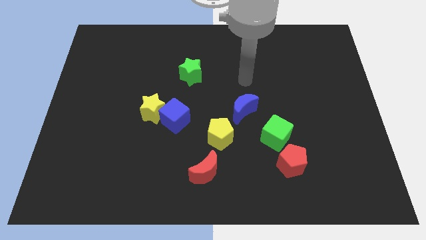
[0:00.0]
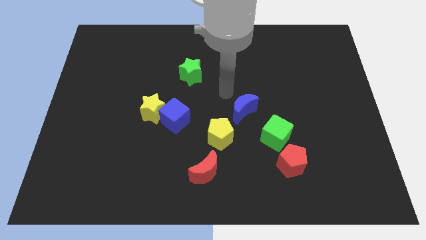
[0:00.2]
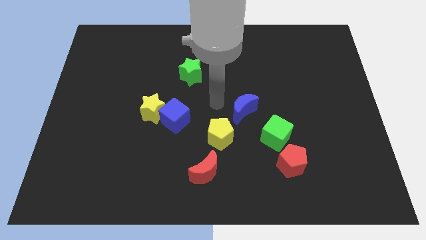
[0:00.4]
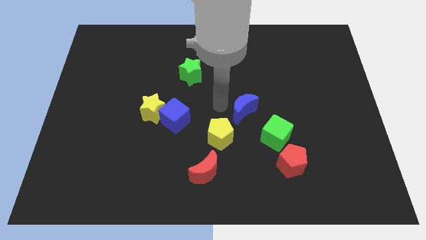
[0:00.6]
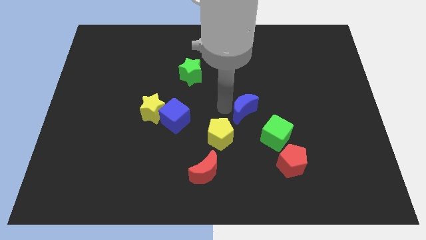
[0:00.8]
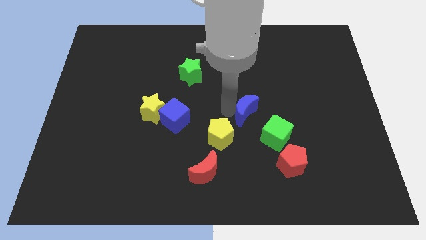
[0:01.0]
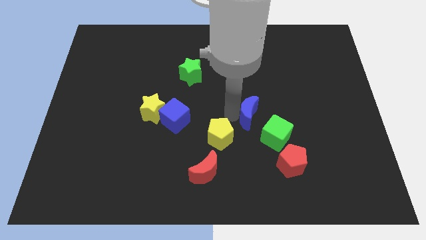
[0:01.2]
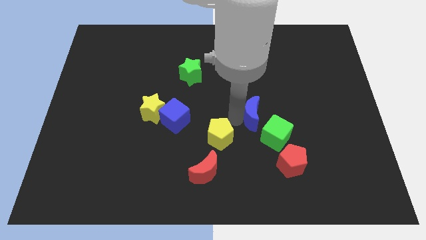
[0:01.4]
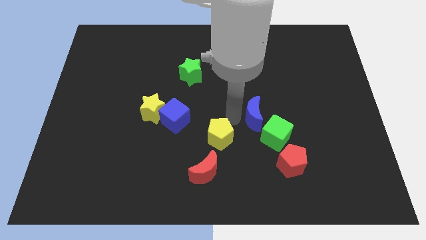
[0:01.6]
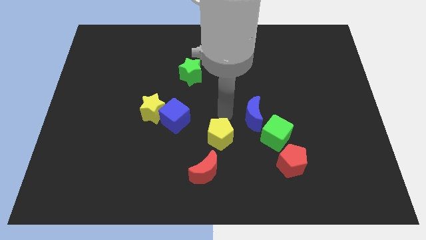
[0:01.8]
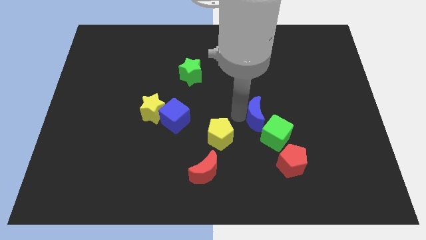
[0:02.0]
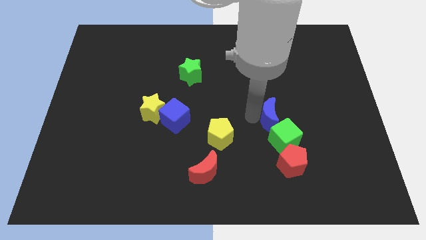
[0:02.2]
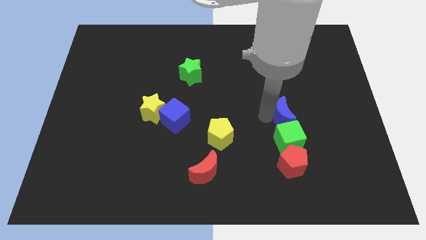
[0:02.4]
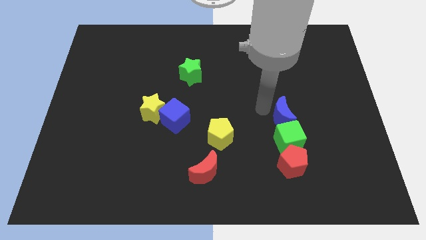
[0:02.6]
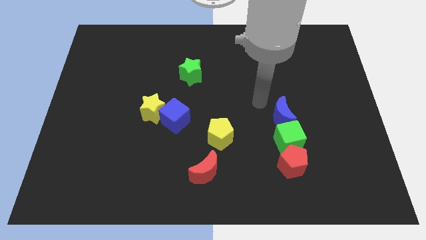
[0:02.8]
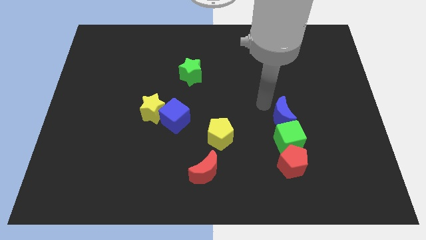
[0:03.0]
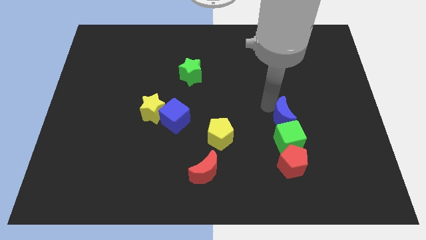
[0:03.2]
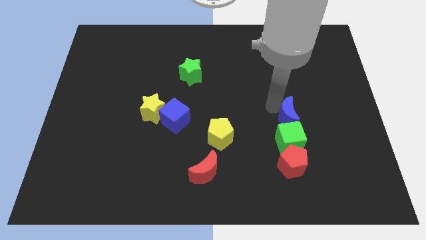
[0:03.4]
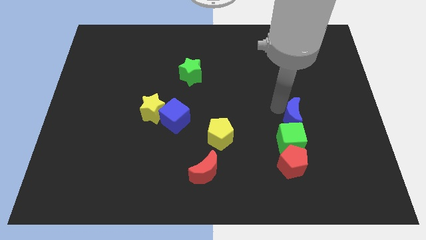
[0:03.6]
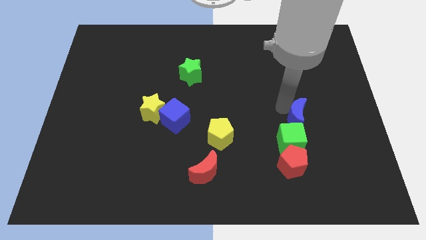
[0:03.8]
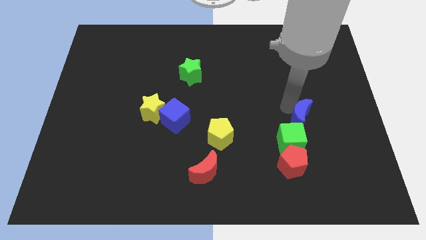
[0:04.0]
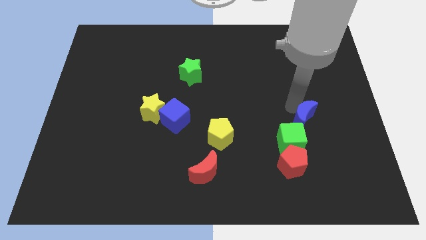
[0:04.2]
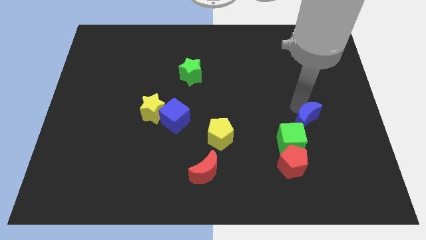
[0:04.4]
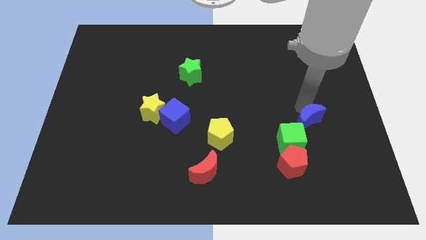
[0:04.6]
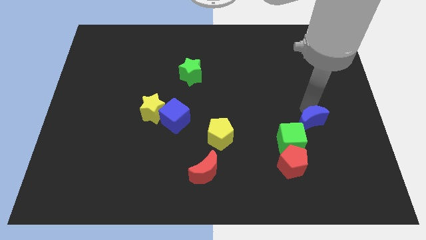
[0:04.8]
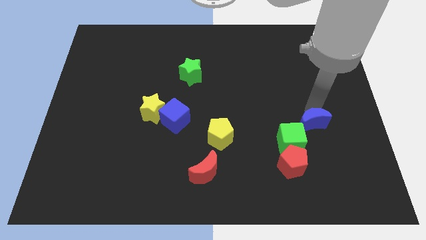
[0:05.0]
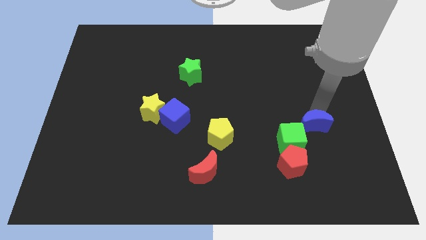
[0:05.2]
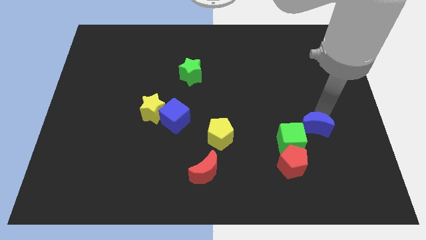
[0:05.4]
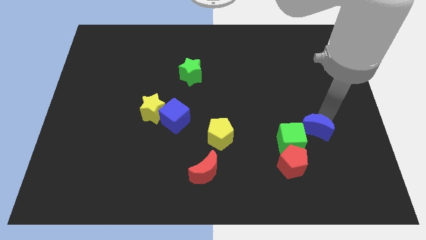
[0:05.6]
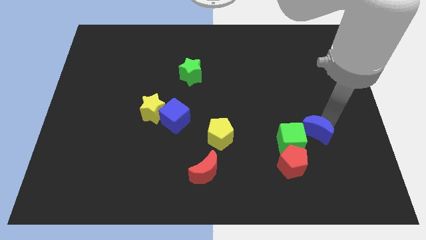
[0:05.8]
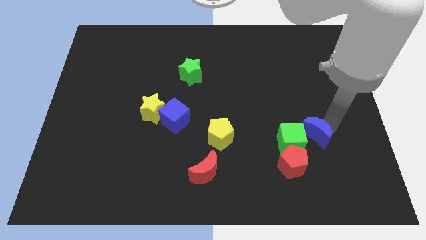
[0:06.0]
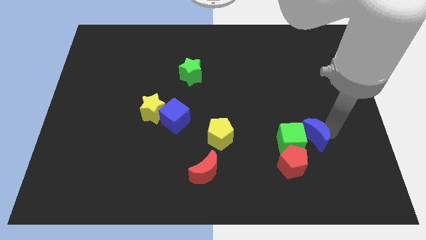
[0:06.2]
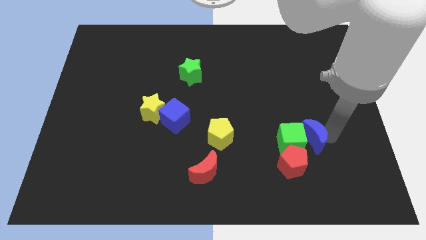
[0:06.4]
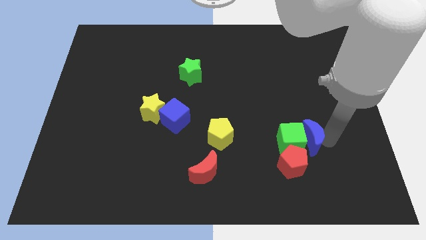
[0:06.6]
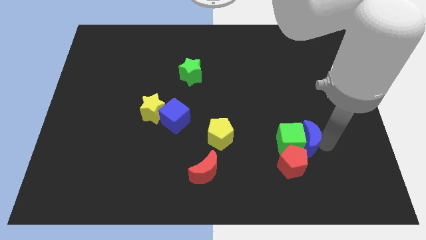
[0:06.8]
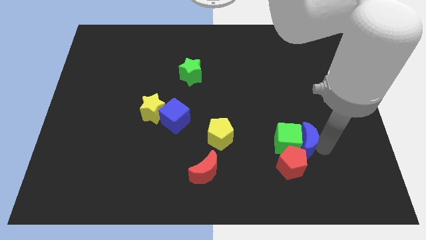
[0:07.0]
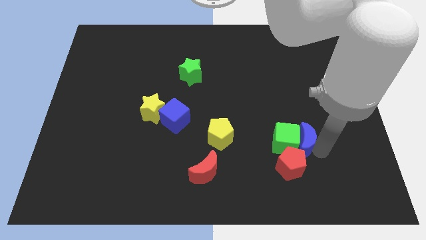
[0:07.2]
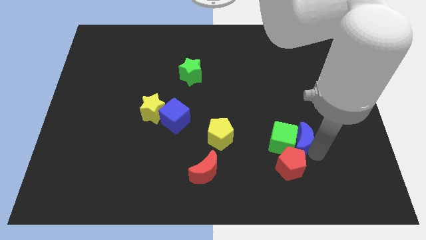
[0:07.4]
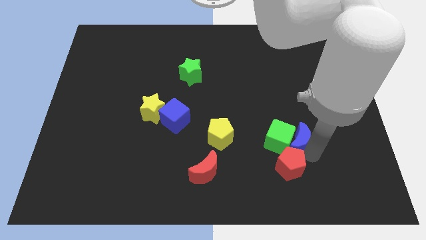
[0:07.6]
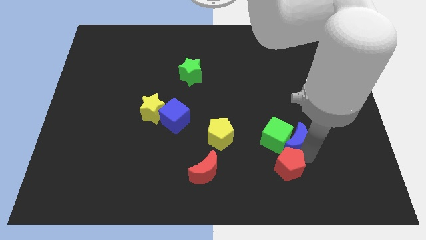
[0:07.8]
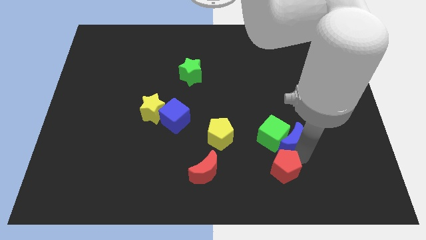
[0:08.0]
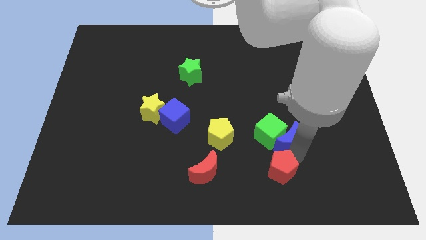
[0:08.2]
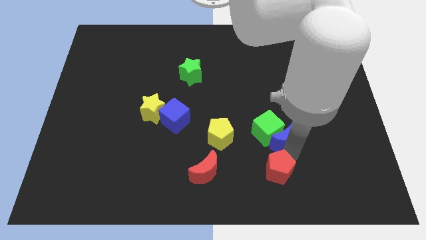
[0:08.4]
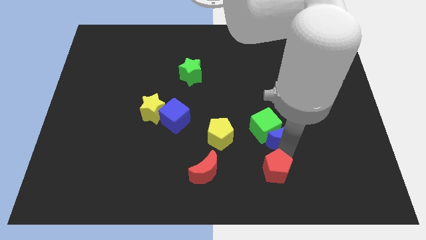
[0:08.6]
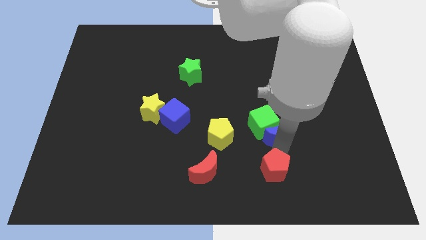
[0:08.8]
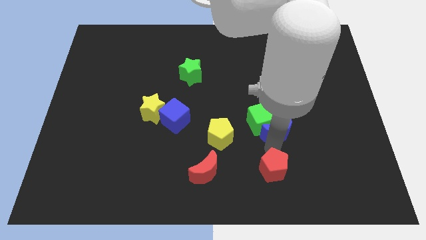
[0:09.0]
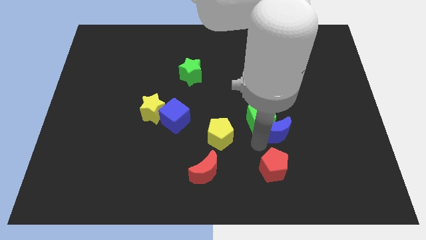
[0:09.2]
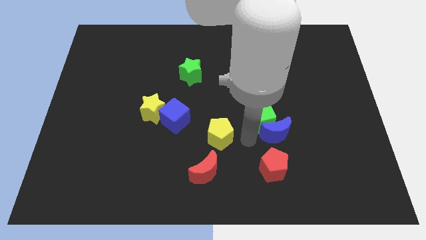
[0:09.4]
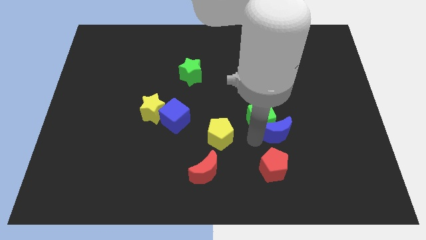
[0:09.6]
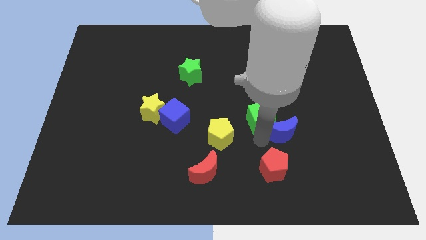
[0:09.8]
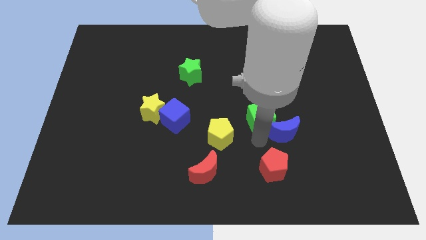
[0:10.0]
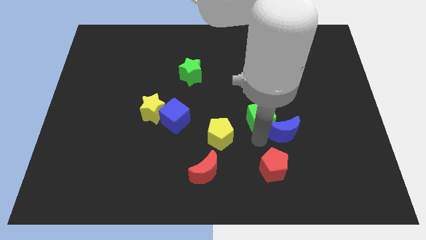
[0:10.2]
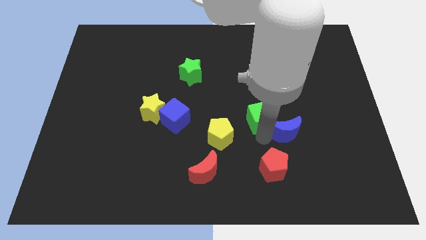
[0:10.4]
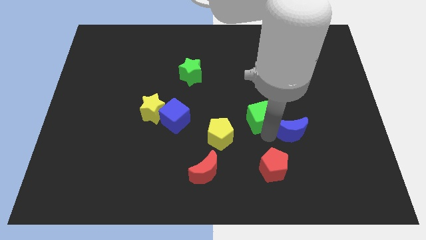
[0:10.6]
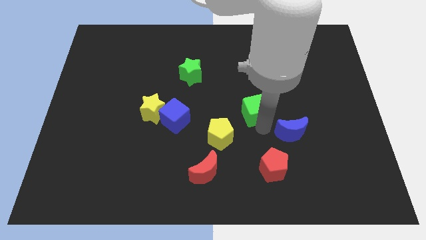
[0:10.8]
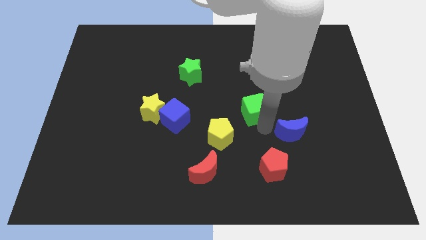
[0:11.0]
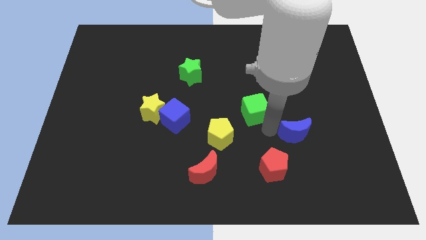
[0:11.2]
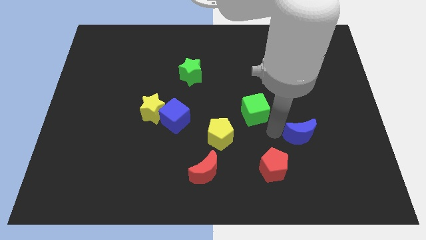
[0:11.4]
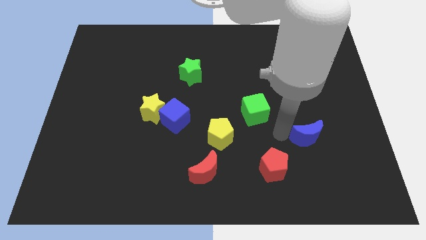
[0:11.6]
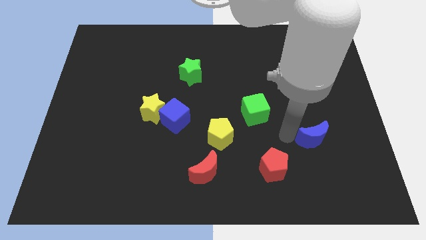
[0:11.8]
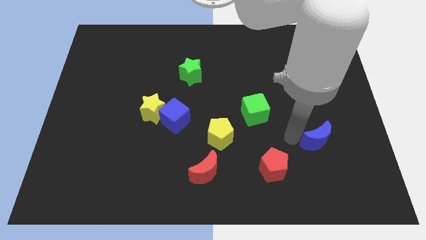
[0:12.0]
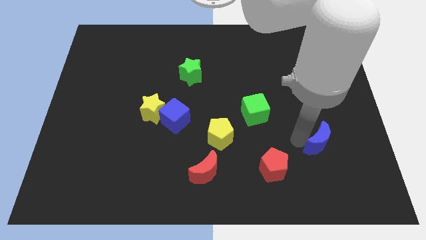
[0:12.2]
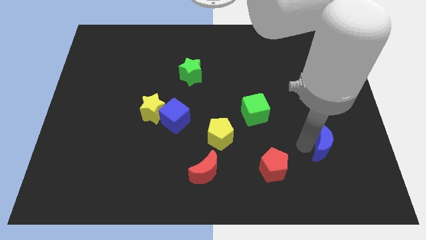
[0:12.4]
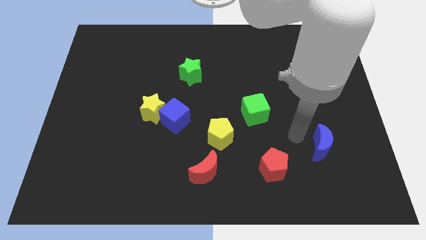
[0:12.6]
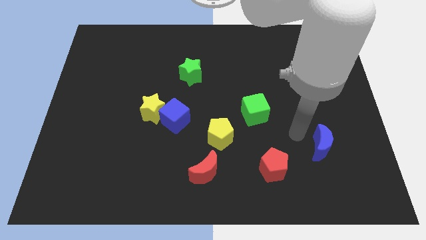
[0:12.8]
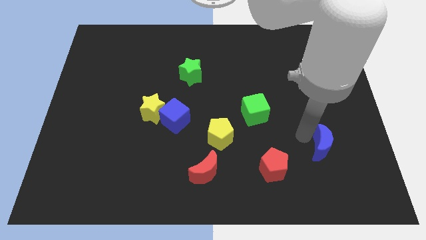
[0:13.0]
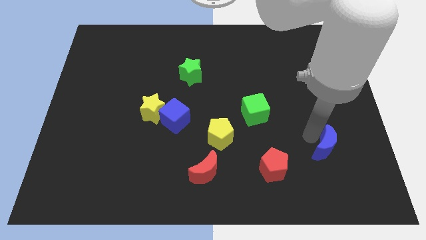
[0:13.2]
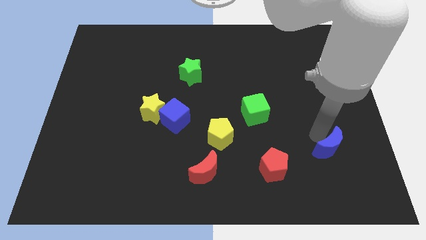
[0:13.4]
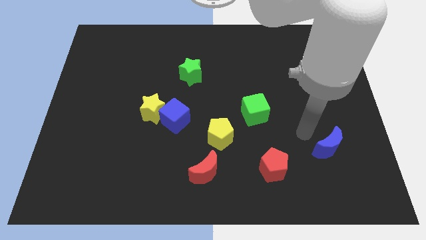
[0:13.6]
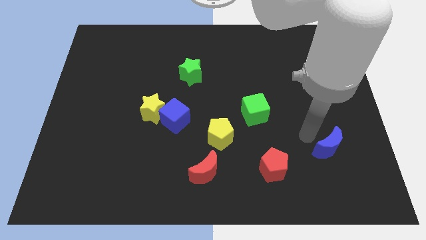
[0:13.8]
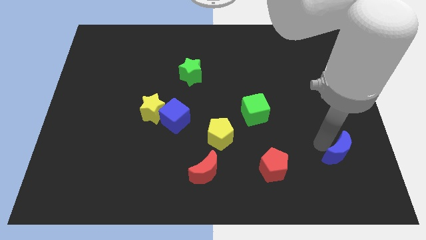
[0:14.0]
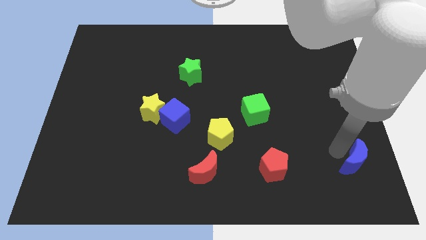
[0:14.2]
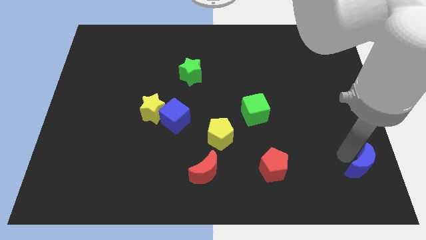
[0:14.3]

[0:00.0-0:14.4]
move the blue moon to the bottom right
